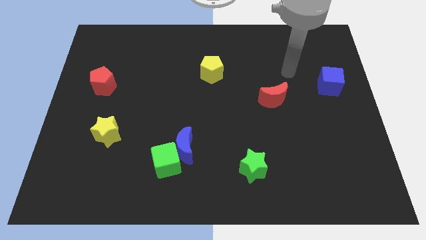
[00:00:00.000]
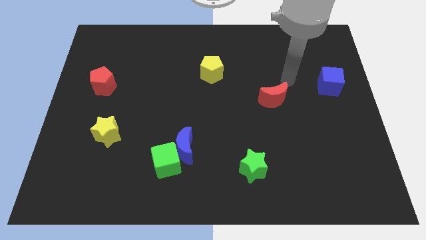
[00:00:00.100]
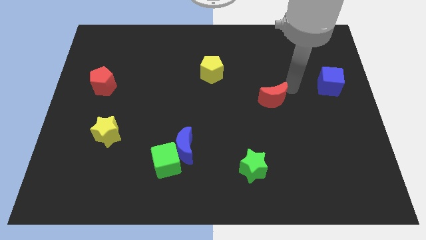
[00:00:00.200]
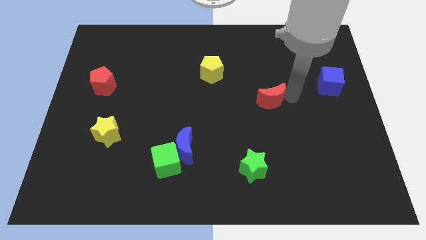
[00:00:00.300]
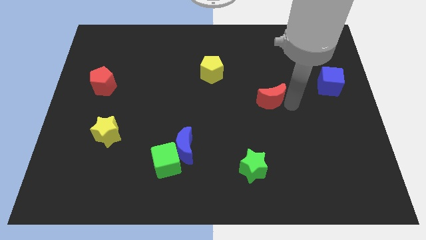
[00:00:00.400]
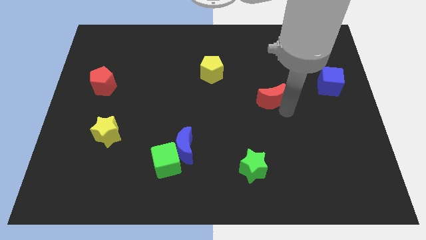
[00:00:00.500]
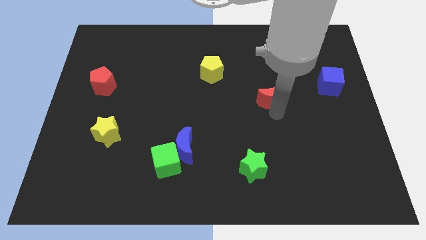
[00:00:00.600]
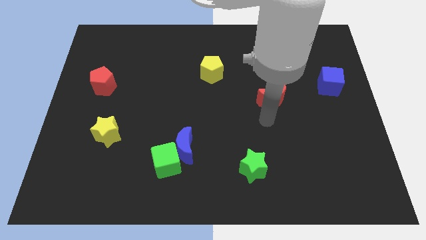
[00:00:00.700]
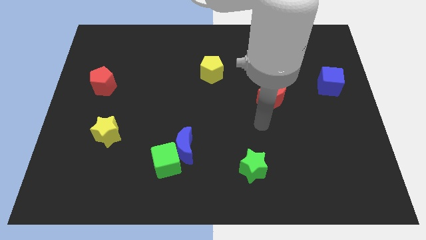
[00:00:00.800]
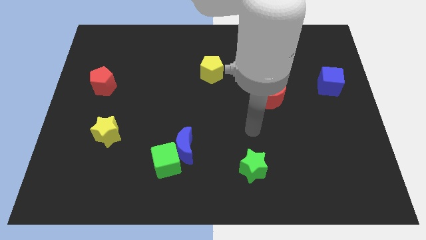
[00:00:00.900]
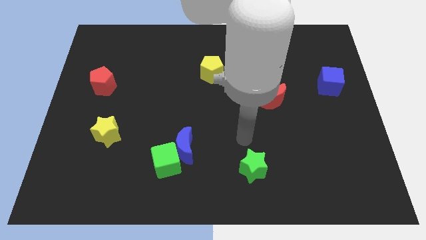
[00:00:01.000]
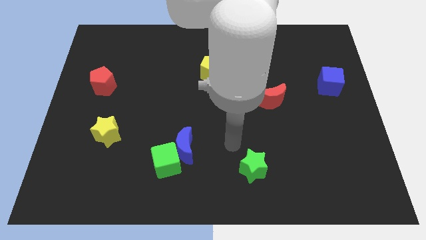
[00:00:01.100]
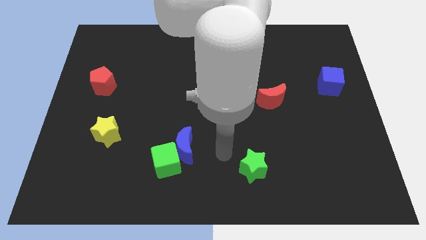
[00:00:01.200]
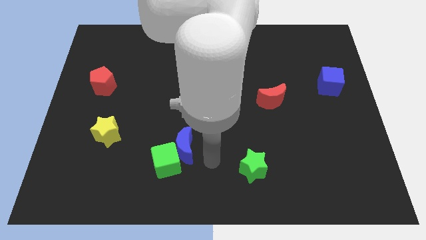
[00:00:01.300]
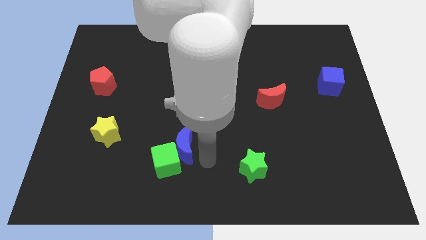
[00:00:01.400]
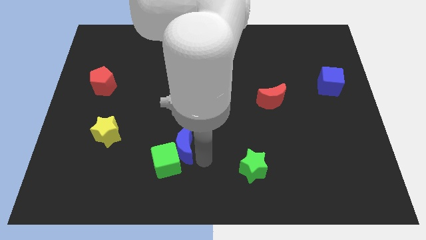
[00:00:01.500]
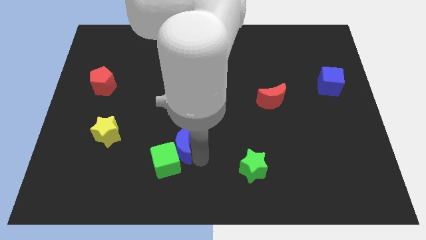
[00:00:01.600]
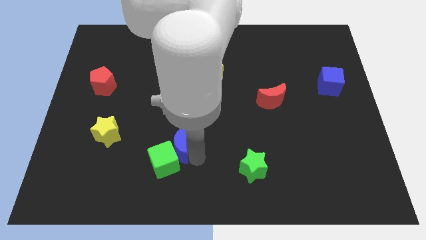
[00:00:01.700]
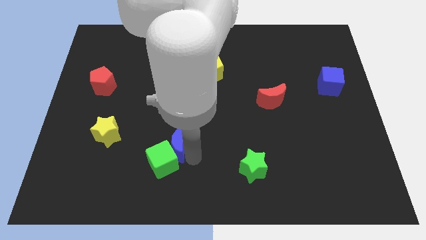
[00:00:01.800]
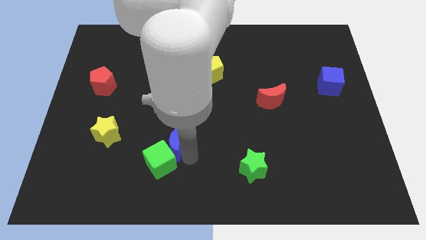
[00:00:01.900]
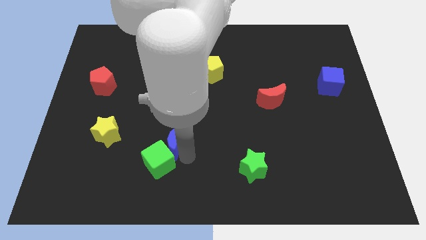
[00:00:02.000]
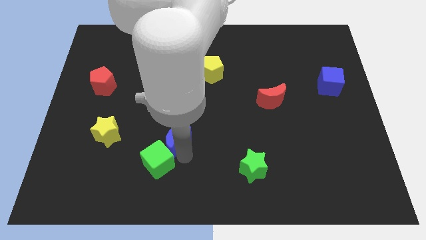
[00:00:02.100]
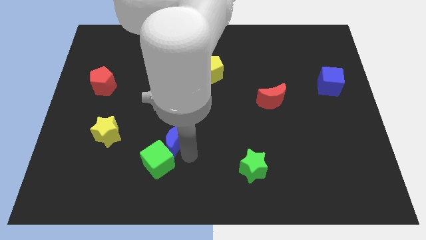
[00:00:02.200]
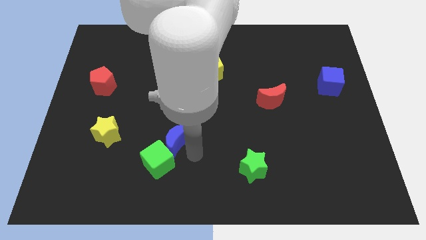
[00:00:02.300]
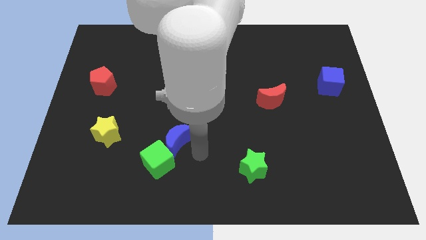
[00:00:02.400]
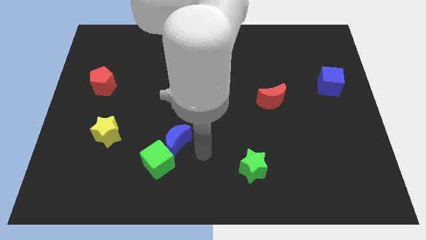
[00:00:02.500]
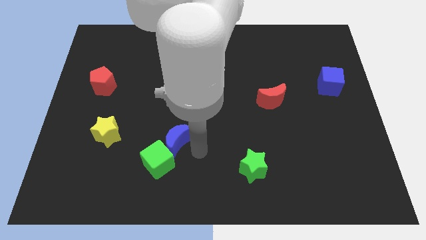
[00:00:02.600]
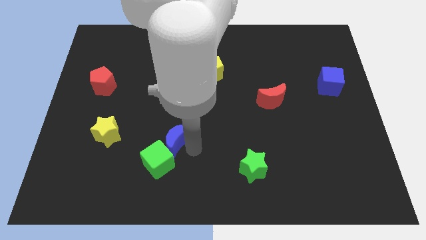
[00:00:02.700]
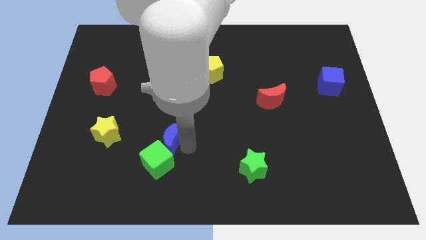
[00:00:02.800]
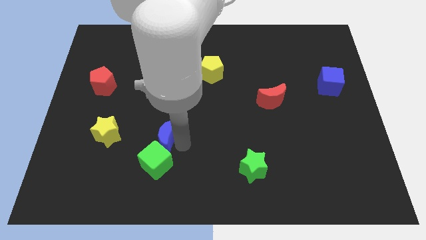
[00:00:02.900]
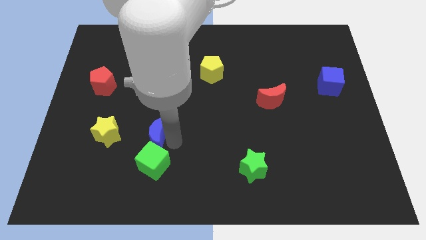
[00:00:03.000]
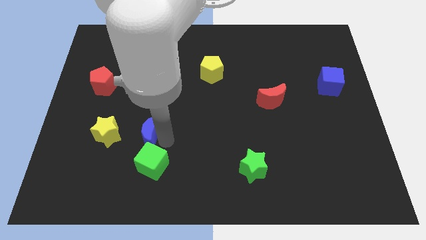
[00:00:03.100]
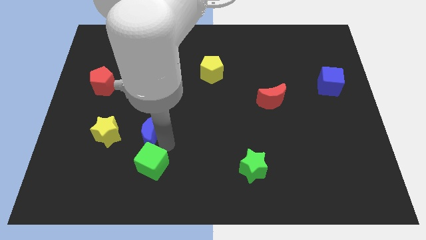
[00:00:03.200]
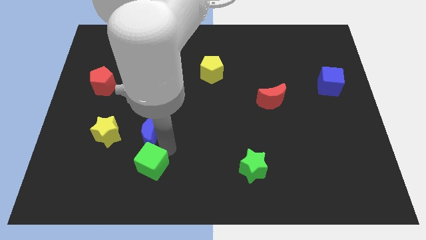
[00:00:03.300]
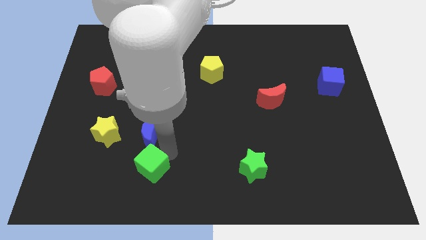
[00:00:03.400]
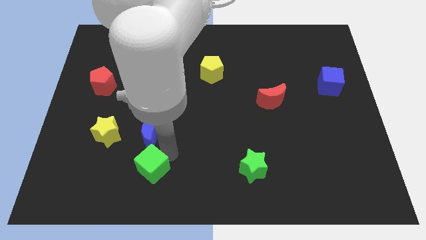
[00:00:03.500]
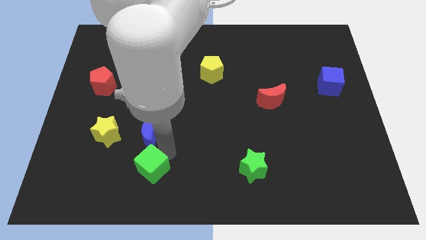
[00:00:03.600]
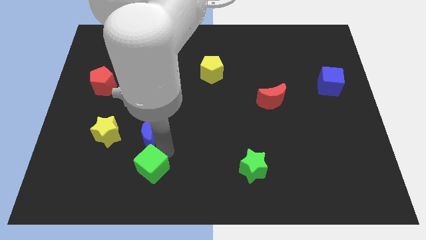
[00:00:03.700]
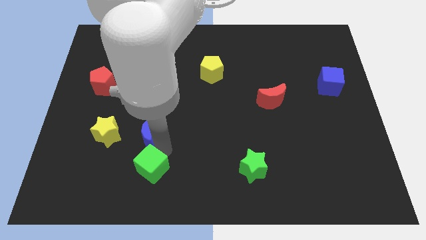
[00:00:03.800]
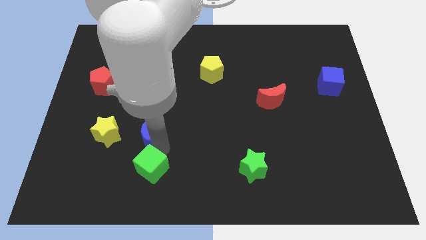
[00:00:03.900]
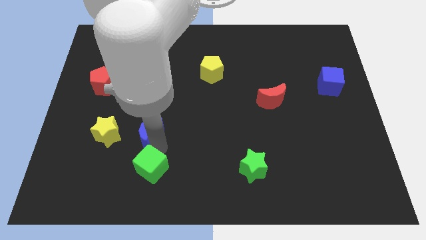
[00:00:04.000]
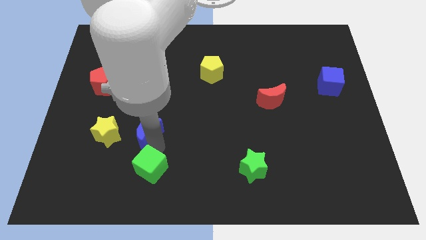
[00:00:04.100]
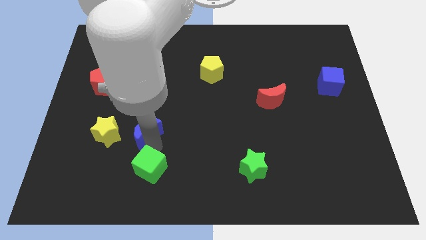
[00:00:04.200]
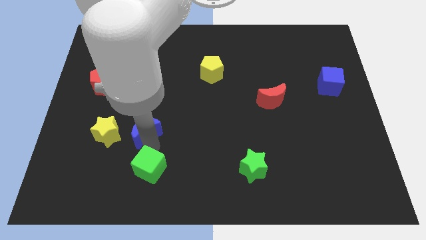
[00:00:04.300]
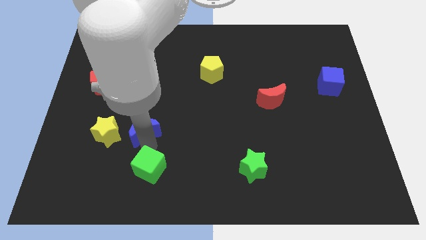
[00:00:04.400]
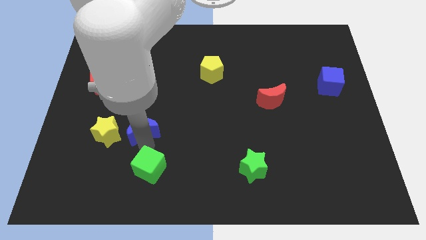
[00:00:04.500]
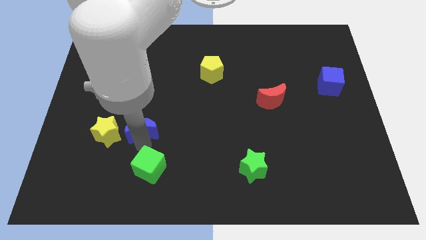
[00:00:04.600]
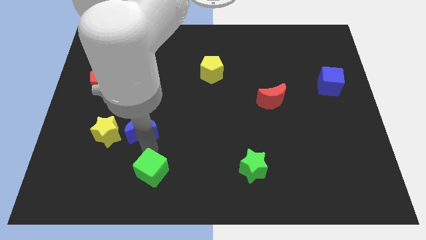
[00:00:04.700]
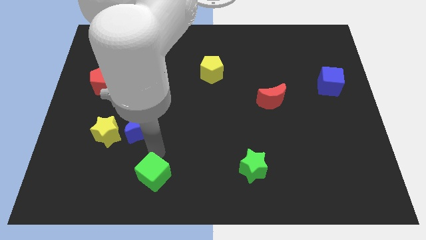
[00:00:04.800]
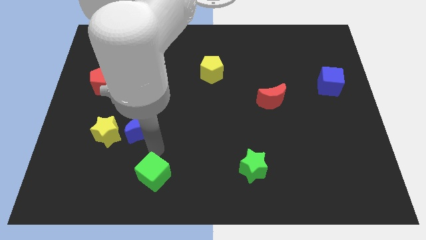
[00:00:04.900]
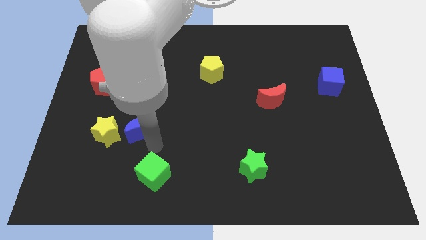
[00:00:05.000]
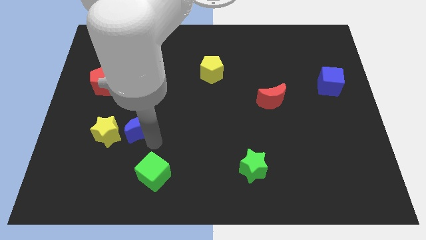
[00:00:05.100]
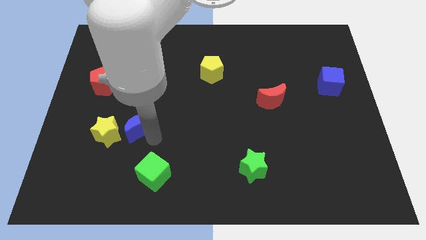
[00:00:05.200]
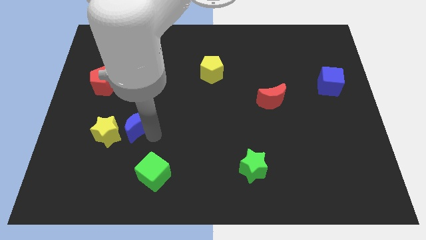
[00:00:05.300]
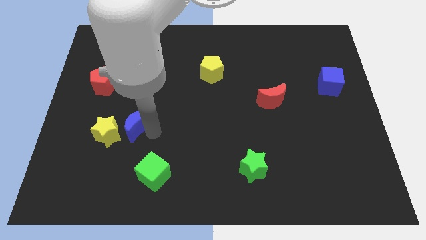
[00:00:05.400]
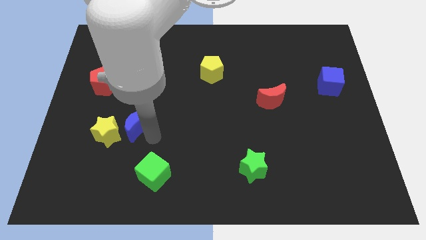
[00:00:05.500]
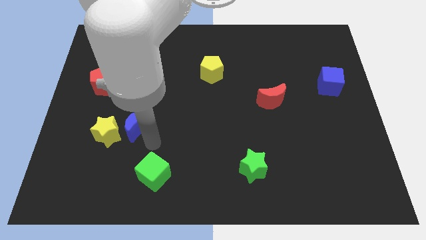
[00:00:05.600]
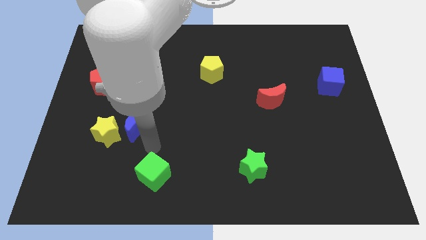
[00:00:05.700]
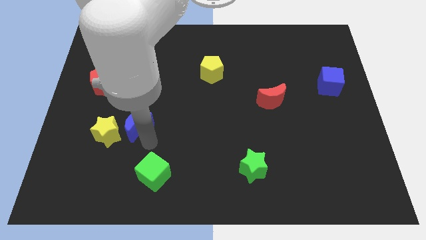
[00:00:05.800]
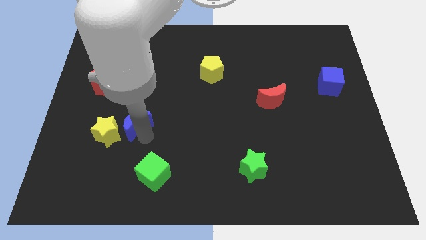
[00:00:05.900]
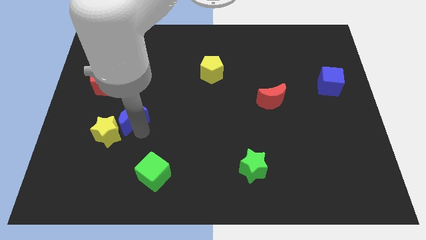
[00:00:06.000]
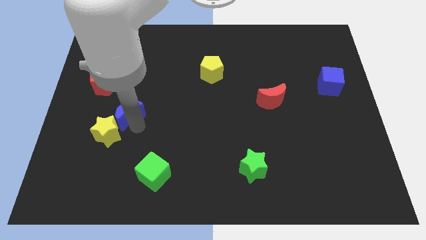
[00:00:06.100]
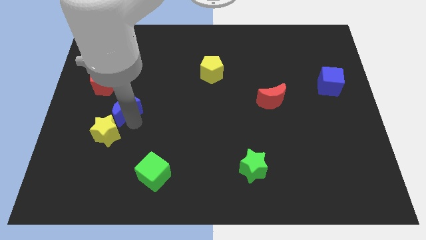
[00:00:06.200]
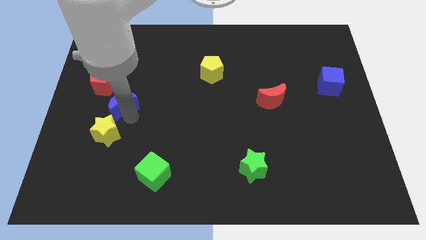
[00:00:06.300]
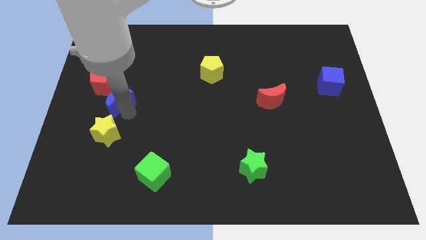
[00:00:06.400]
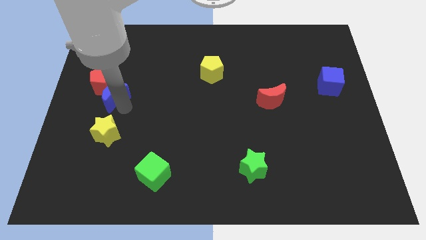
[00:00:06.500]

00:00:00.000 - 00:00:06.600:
move the blue moon to the red pentagon
